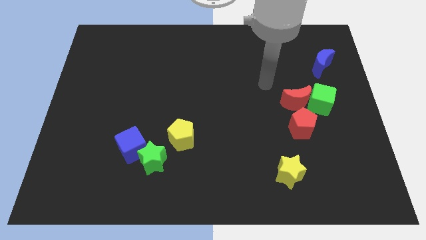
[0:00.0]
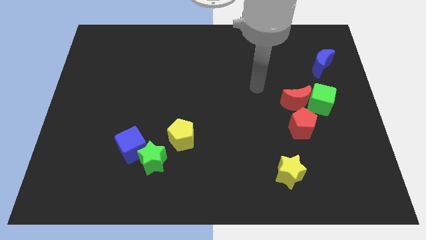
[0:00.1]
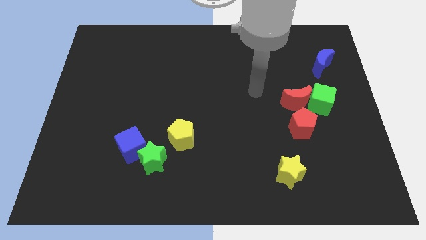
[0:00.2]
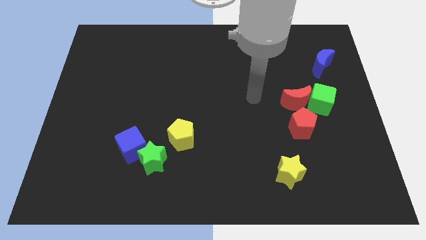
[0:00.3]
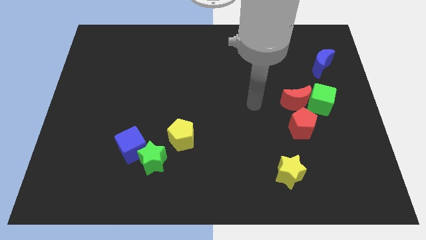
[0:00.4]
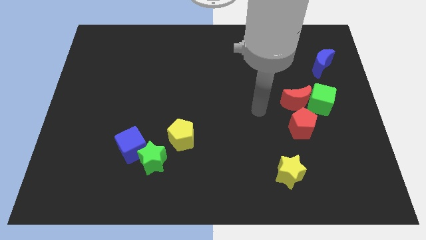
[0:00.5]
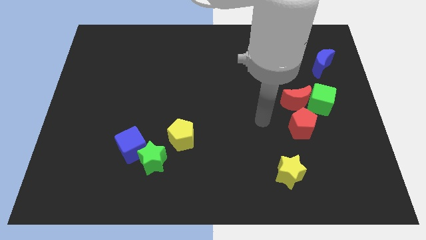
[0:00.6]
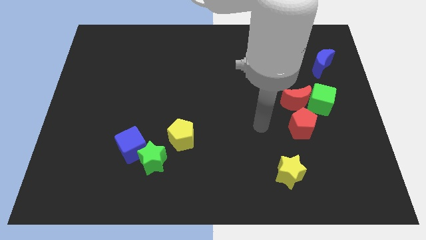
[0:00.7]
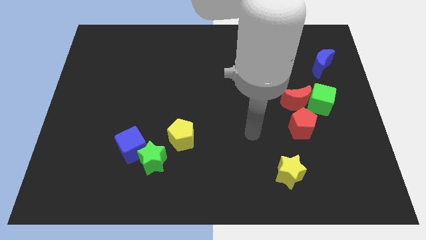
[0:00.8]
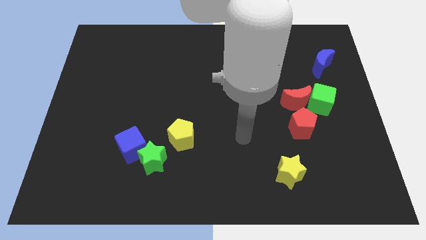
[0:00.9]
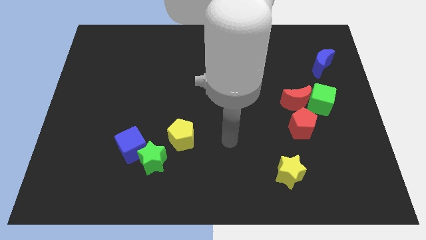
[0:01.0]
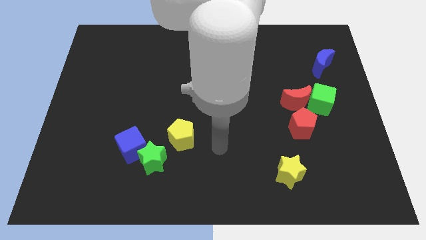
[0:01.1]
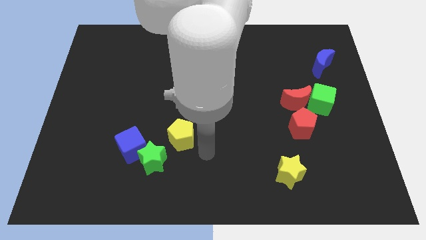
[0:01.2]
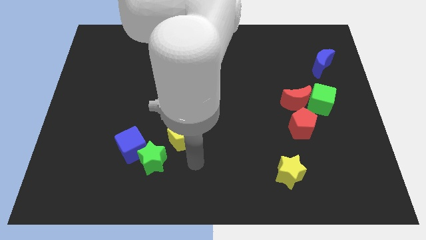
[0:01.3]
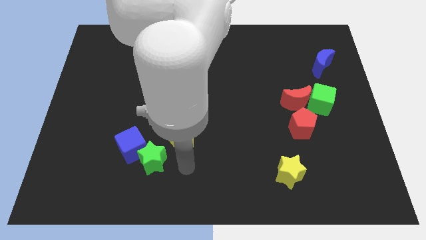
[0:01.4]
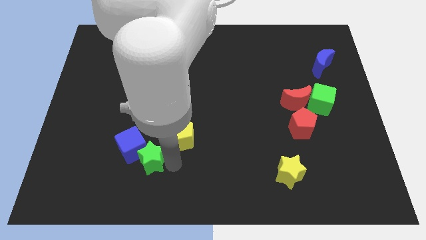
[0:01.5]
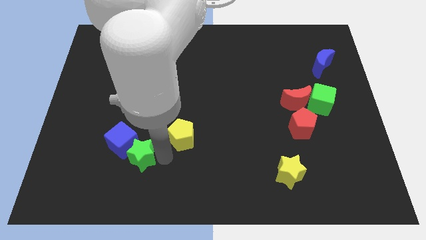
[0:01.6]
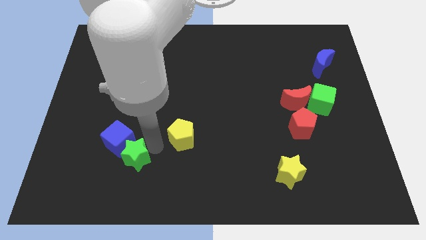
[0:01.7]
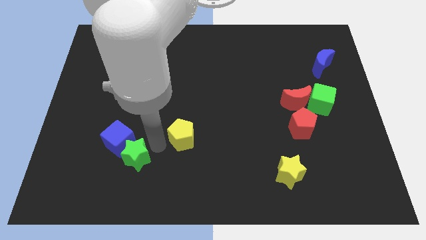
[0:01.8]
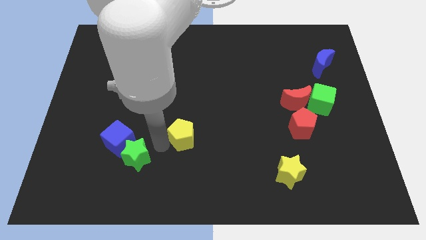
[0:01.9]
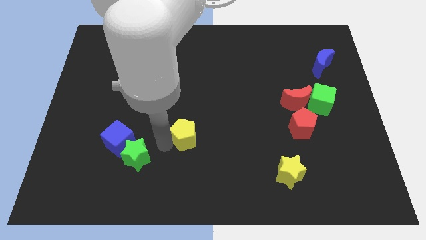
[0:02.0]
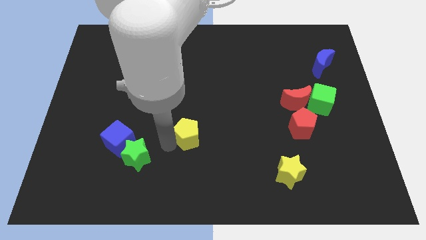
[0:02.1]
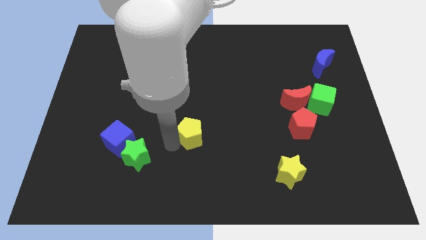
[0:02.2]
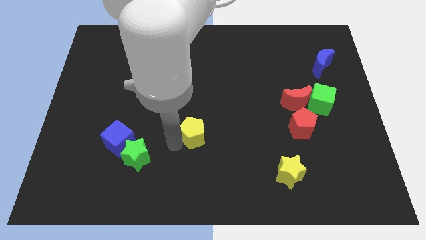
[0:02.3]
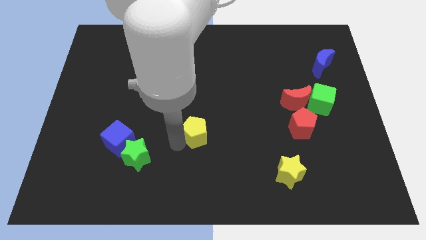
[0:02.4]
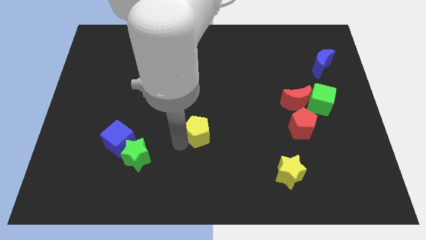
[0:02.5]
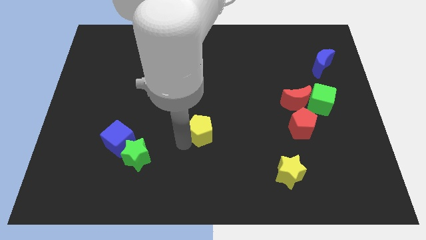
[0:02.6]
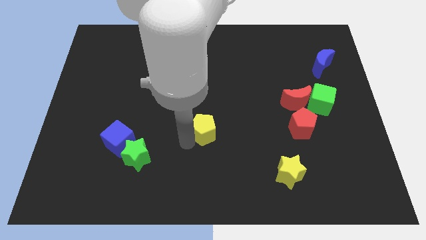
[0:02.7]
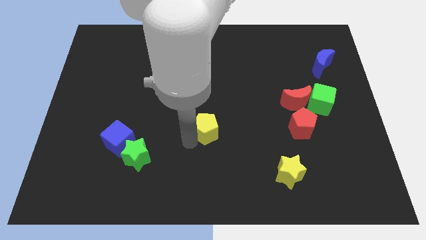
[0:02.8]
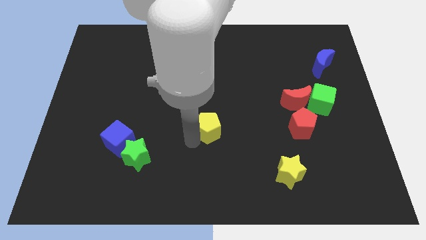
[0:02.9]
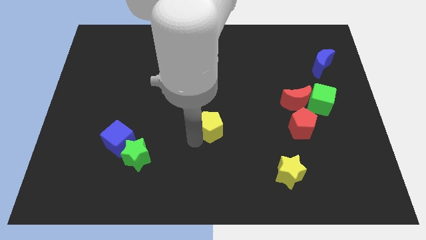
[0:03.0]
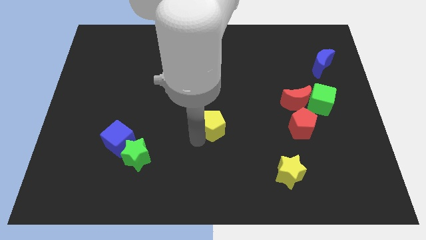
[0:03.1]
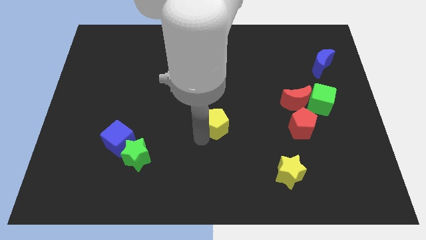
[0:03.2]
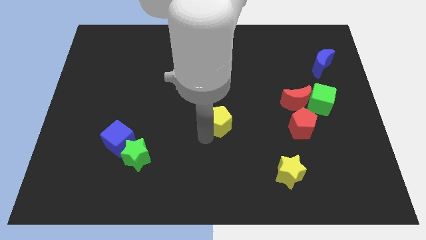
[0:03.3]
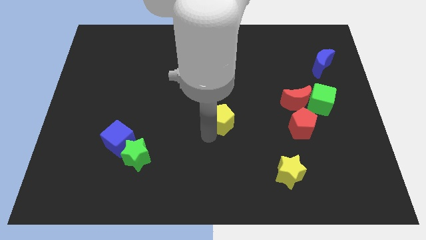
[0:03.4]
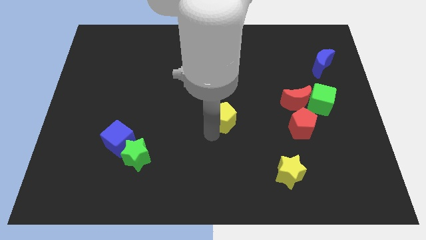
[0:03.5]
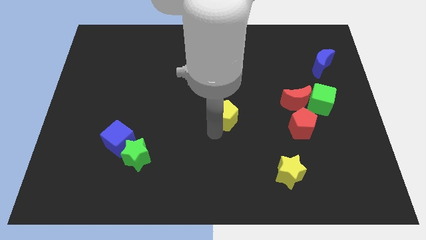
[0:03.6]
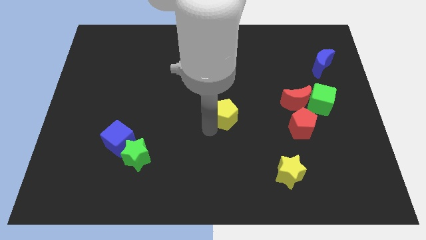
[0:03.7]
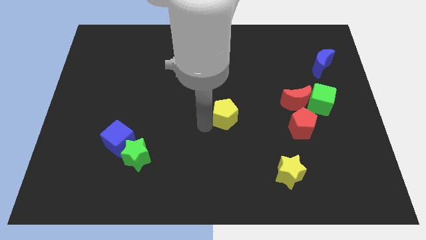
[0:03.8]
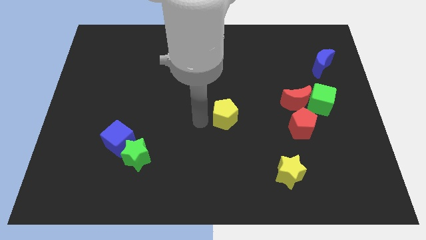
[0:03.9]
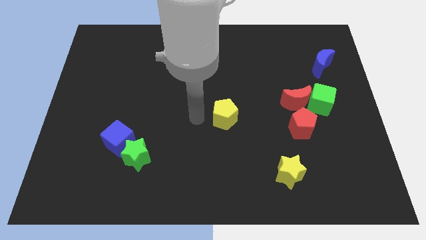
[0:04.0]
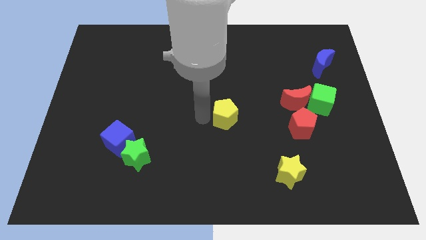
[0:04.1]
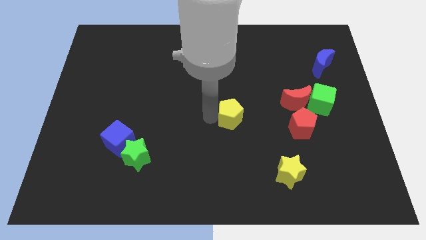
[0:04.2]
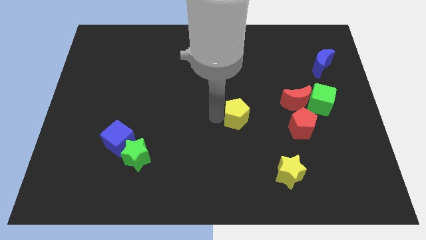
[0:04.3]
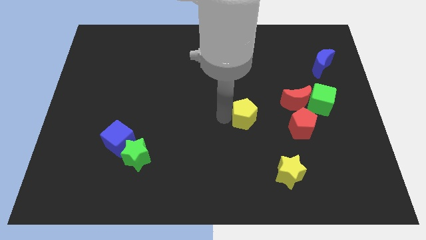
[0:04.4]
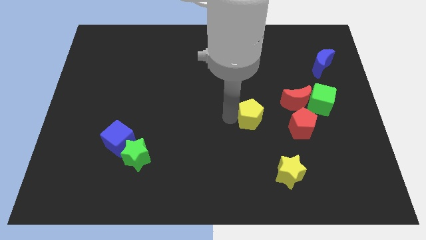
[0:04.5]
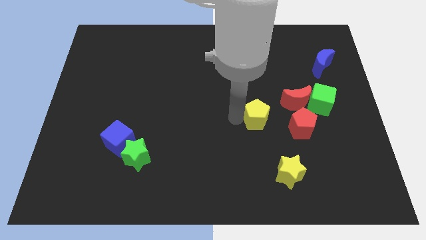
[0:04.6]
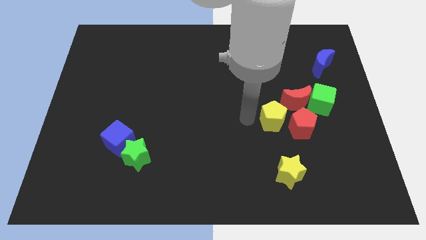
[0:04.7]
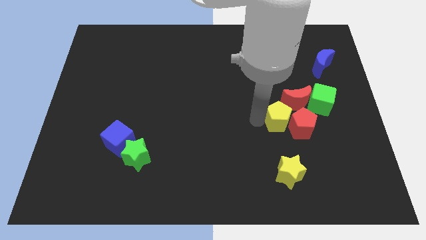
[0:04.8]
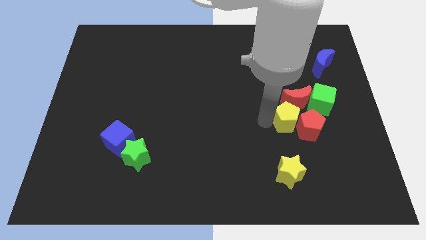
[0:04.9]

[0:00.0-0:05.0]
move the yellow pentagon to the red moon

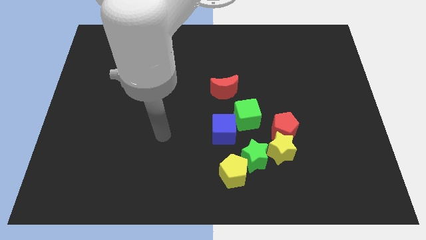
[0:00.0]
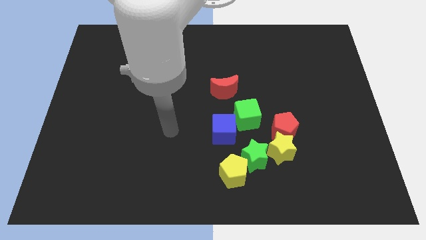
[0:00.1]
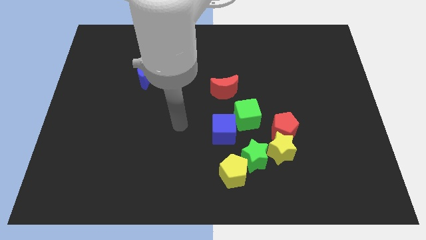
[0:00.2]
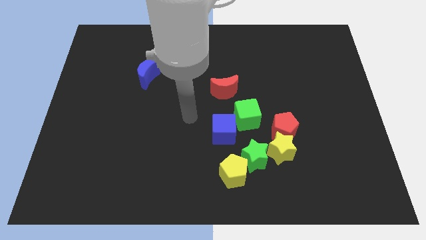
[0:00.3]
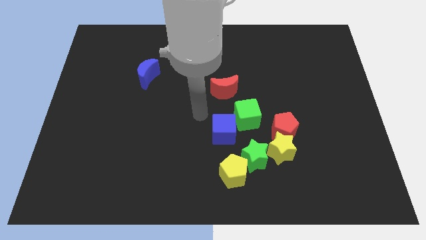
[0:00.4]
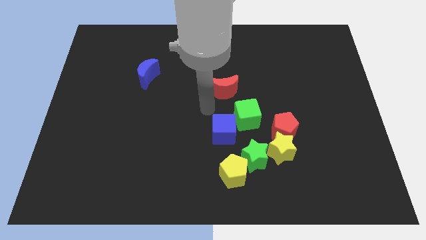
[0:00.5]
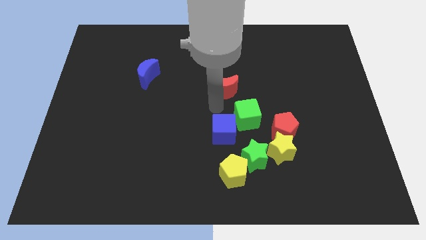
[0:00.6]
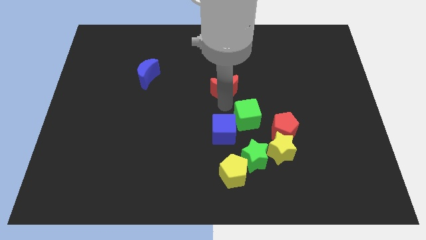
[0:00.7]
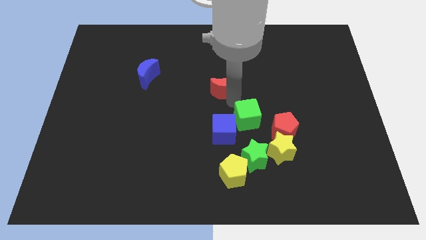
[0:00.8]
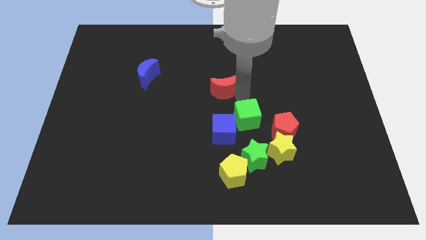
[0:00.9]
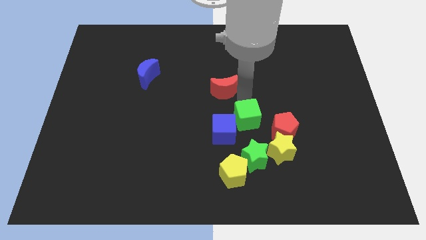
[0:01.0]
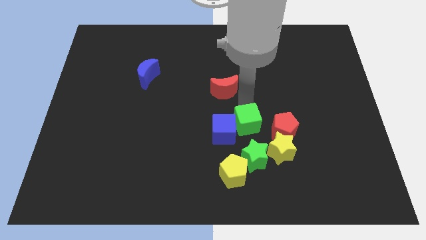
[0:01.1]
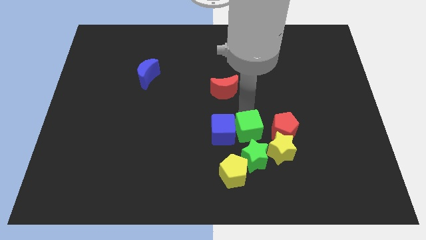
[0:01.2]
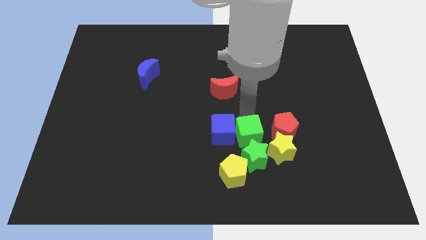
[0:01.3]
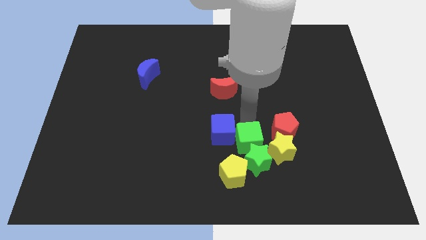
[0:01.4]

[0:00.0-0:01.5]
move the green cube towards the green star

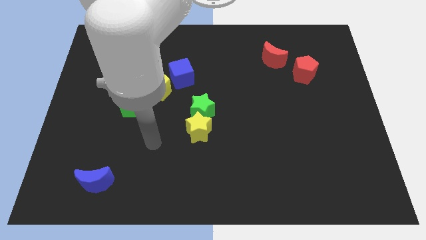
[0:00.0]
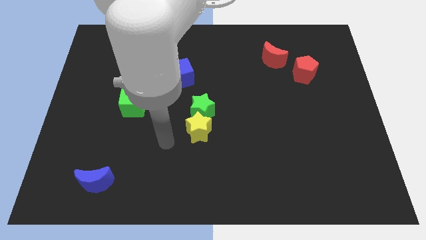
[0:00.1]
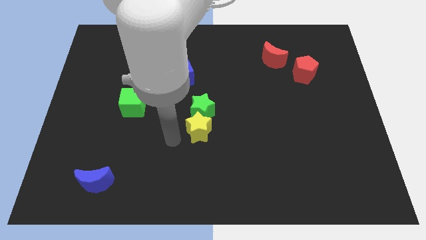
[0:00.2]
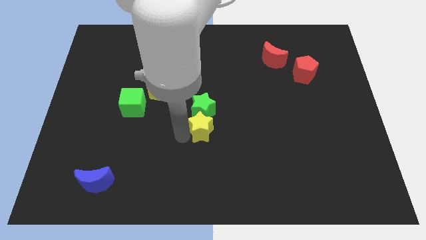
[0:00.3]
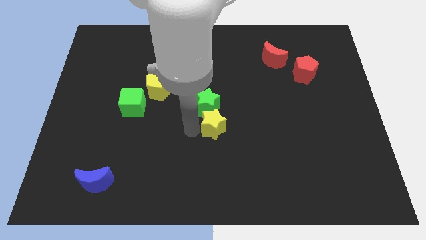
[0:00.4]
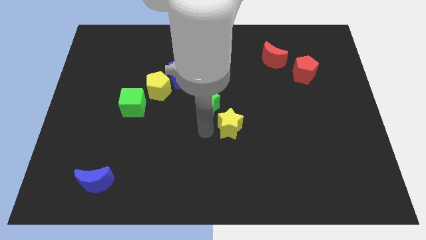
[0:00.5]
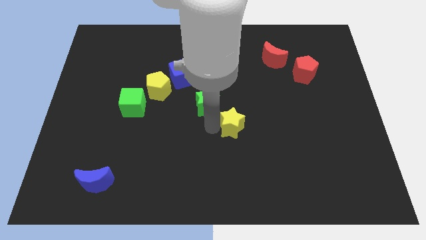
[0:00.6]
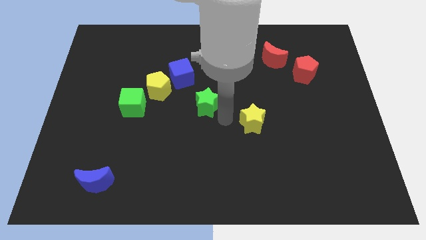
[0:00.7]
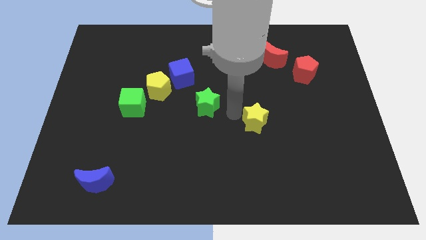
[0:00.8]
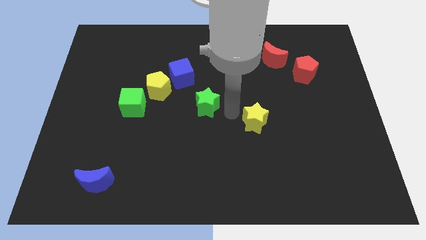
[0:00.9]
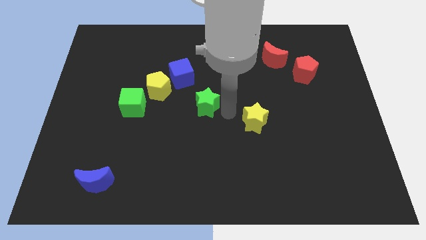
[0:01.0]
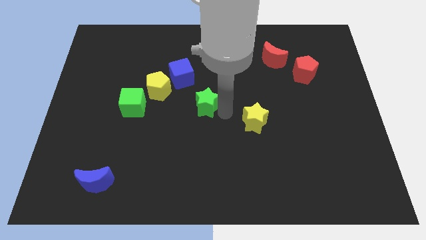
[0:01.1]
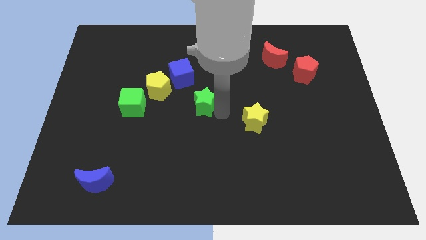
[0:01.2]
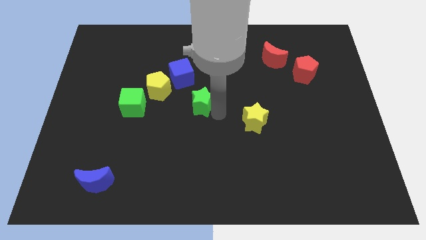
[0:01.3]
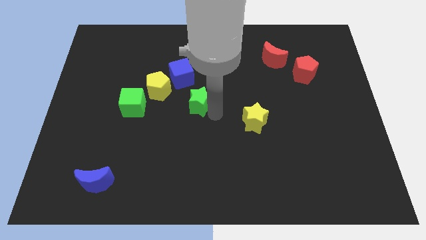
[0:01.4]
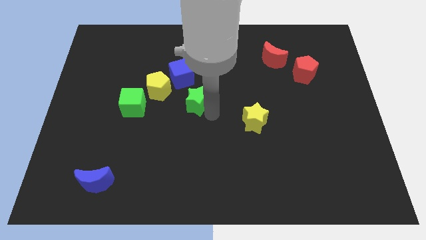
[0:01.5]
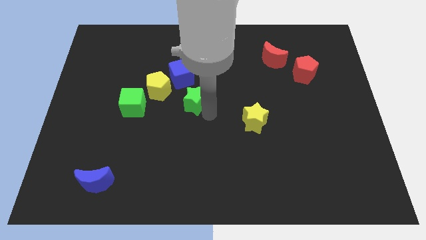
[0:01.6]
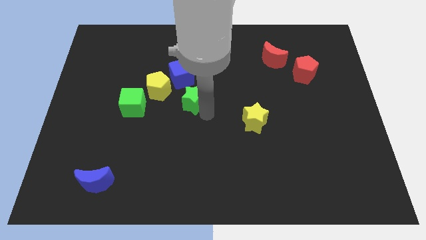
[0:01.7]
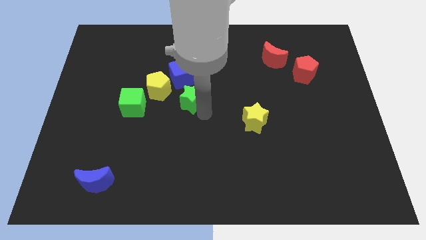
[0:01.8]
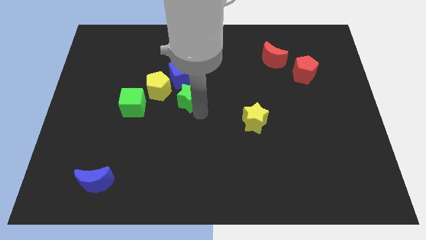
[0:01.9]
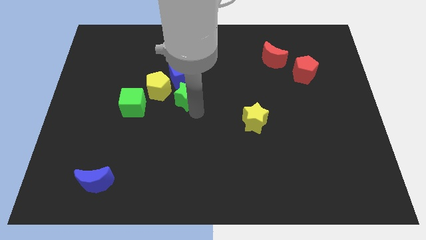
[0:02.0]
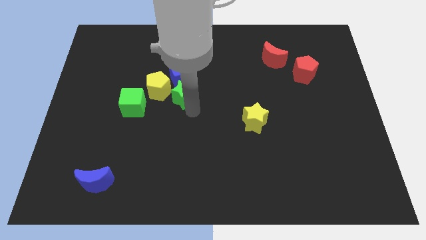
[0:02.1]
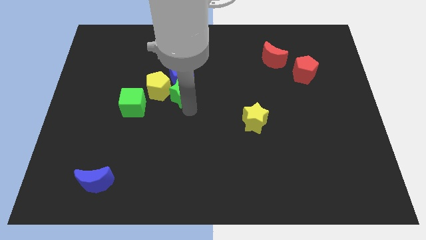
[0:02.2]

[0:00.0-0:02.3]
move the green star close to the yellow pentagon
